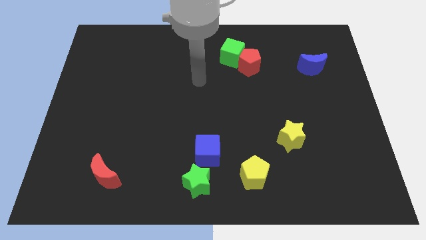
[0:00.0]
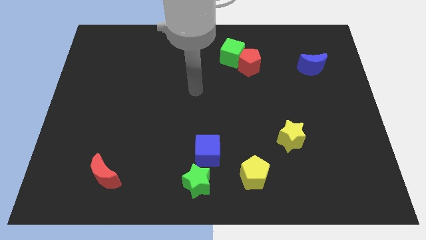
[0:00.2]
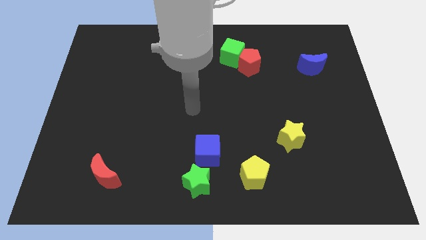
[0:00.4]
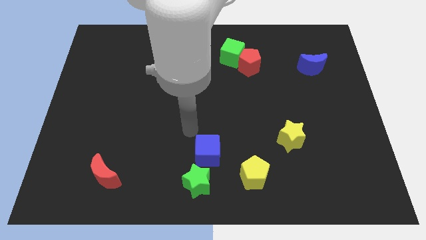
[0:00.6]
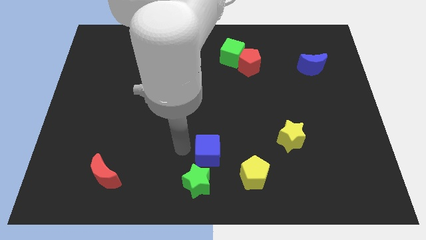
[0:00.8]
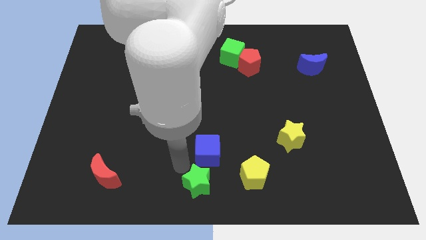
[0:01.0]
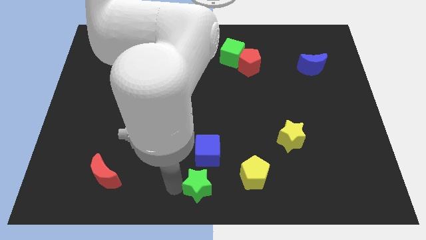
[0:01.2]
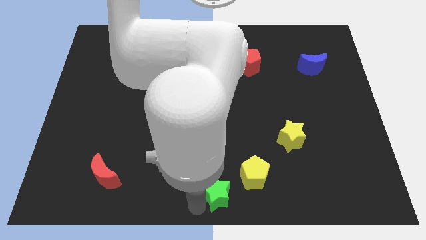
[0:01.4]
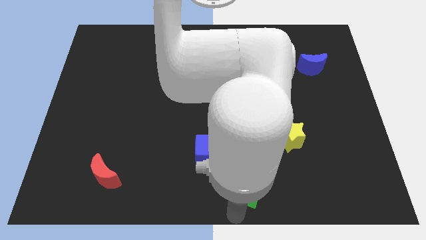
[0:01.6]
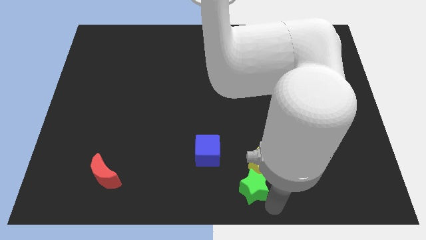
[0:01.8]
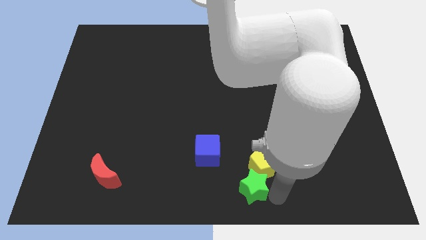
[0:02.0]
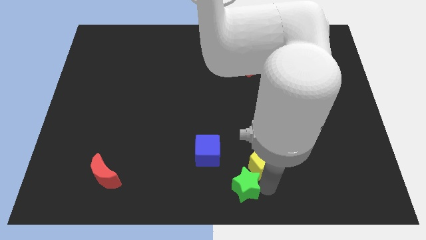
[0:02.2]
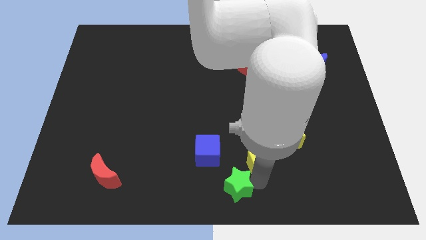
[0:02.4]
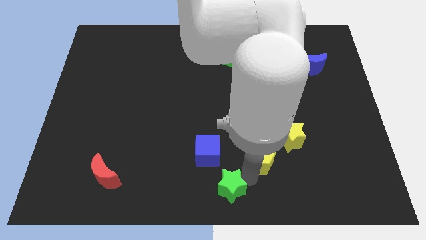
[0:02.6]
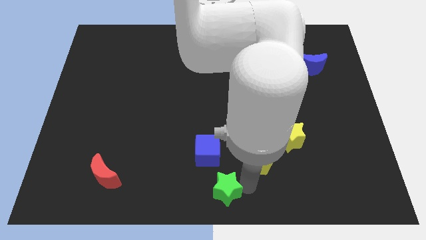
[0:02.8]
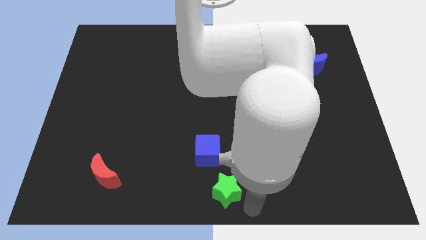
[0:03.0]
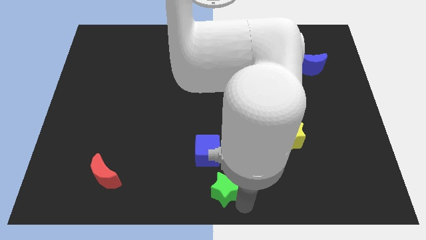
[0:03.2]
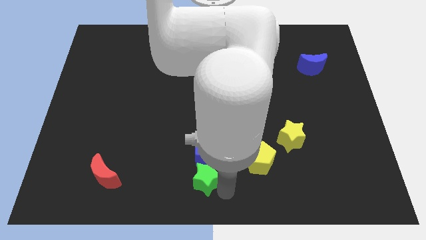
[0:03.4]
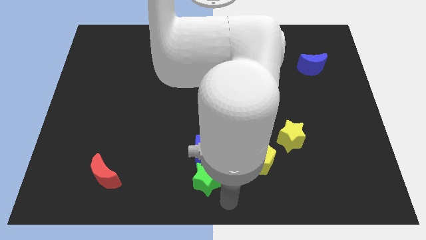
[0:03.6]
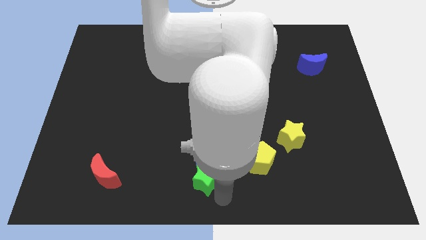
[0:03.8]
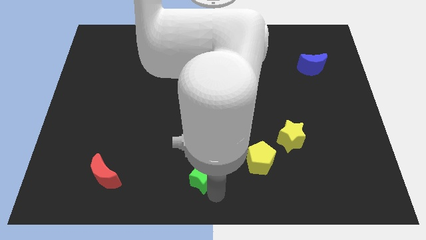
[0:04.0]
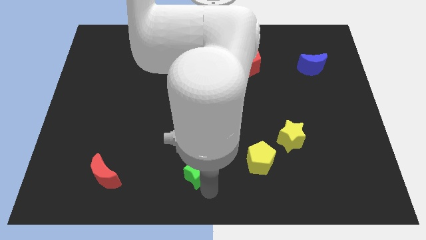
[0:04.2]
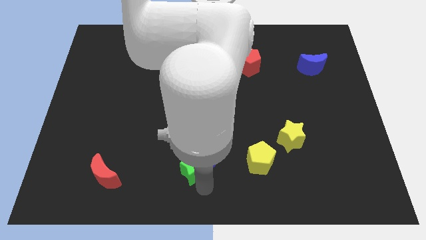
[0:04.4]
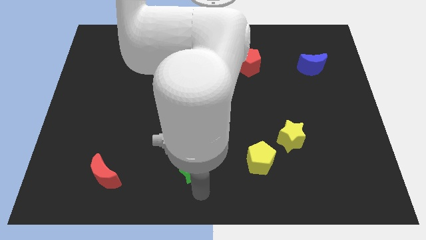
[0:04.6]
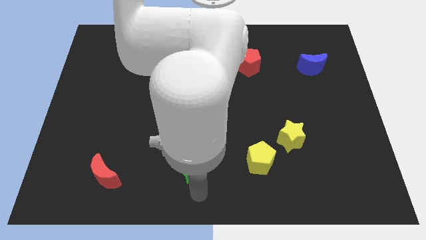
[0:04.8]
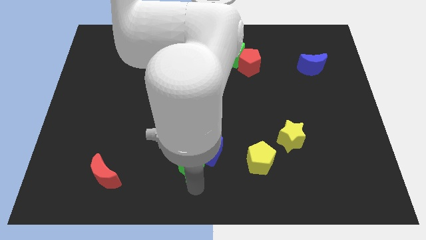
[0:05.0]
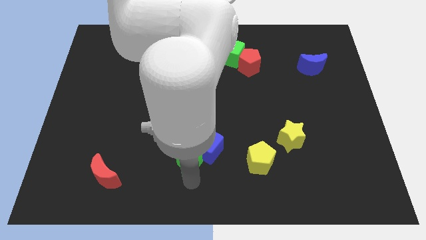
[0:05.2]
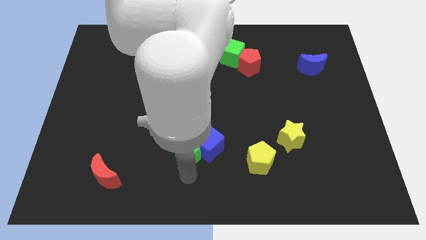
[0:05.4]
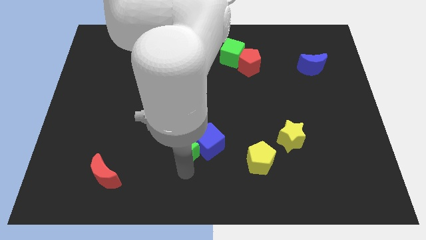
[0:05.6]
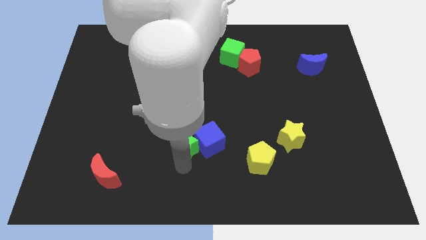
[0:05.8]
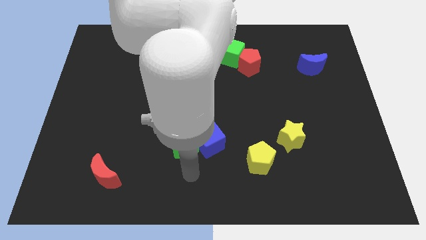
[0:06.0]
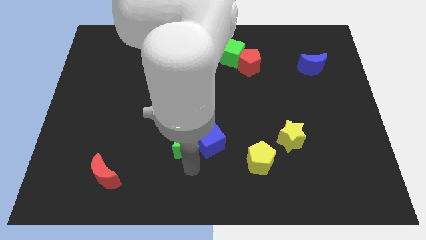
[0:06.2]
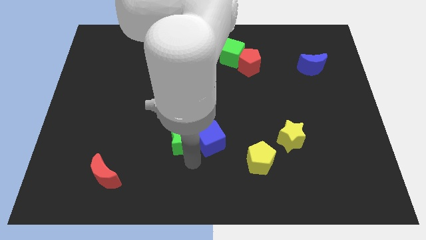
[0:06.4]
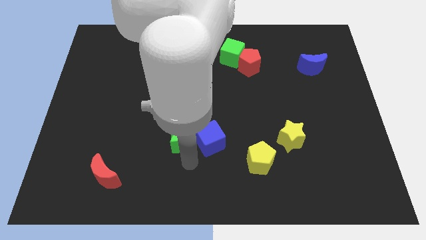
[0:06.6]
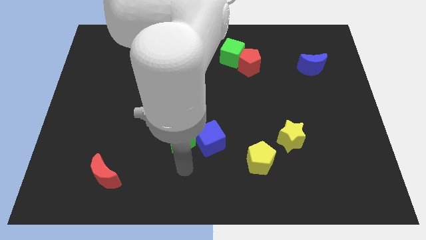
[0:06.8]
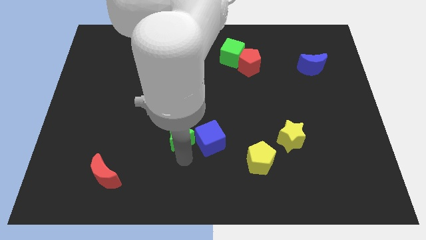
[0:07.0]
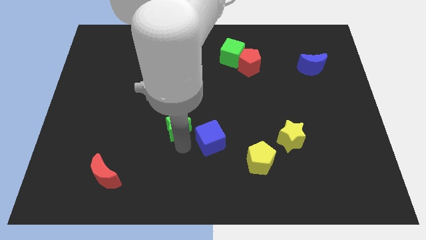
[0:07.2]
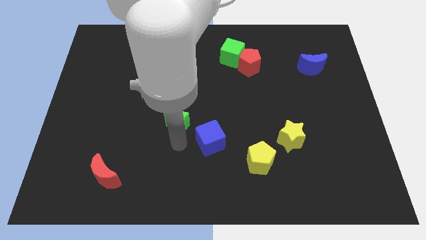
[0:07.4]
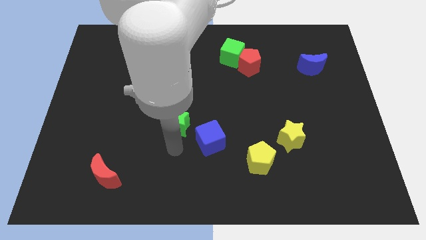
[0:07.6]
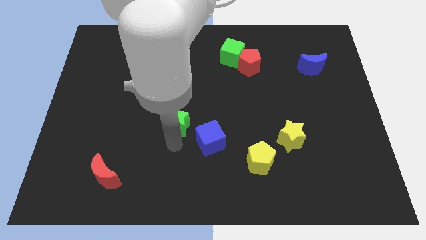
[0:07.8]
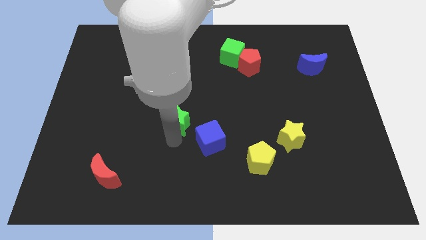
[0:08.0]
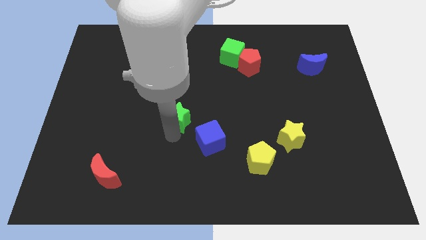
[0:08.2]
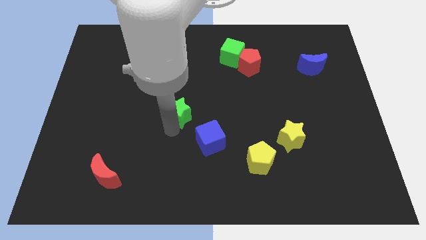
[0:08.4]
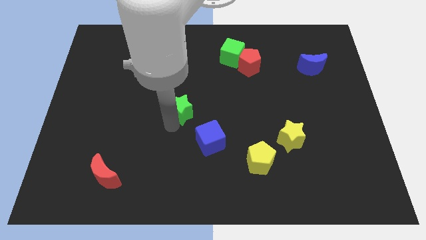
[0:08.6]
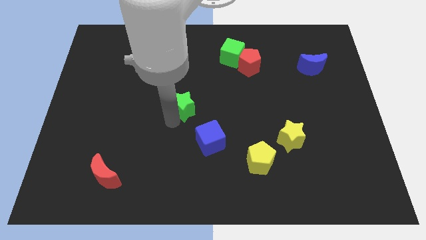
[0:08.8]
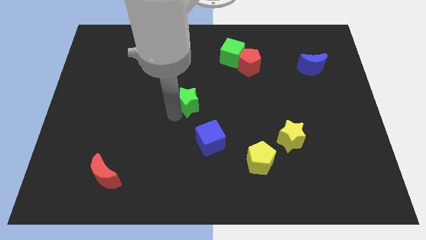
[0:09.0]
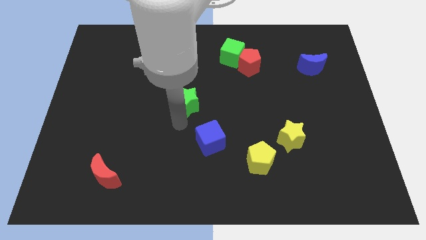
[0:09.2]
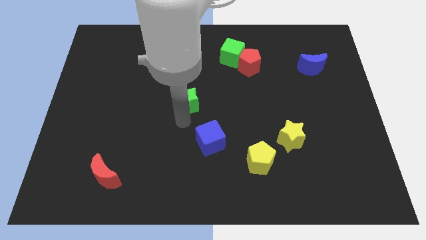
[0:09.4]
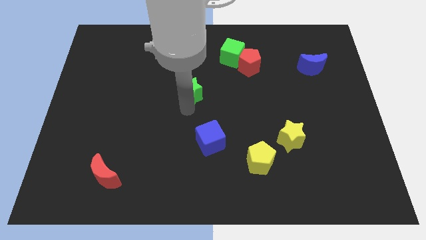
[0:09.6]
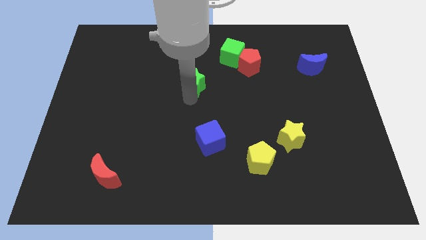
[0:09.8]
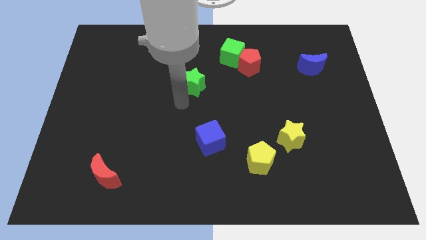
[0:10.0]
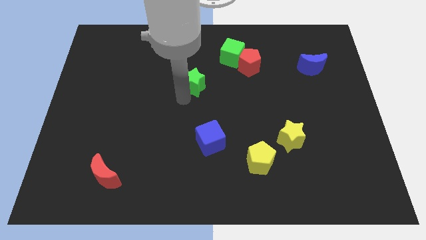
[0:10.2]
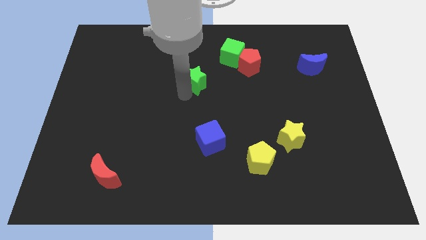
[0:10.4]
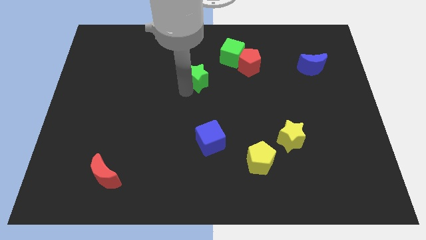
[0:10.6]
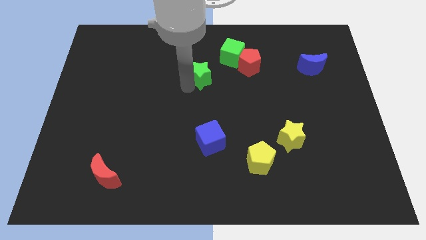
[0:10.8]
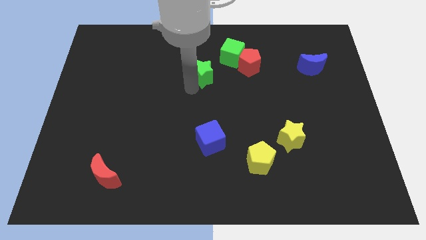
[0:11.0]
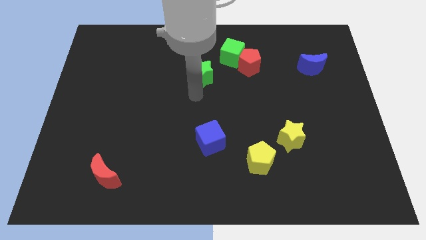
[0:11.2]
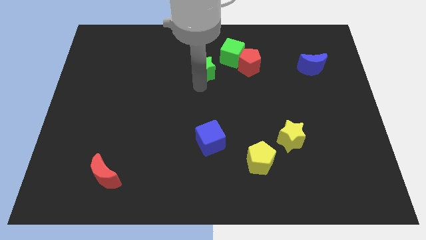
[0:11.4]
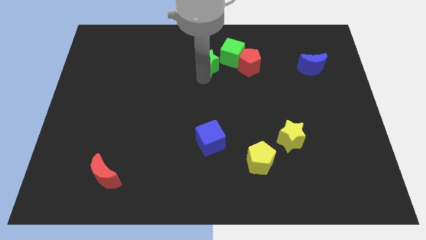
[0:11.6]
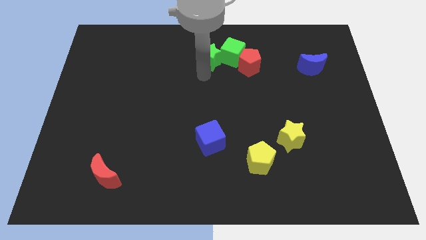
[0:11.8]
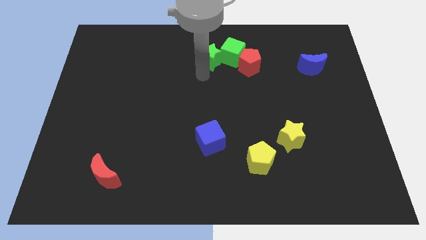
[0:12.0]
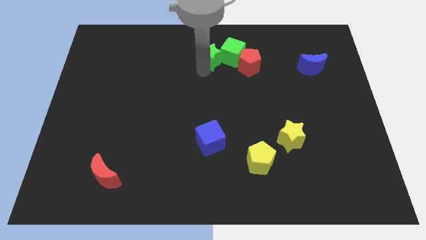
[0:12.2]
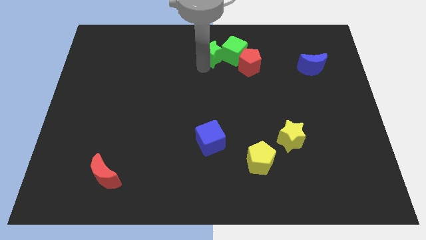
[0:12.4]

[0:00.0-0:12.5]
move the green star to the towards your base

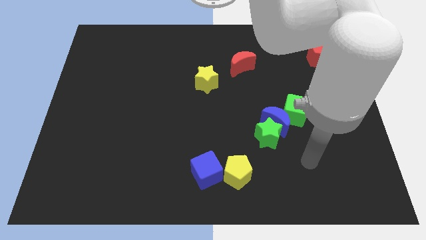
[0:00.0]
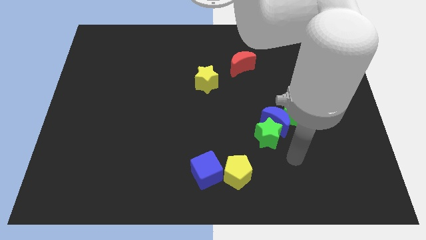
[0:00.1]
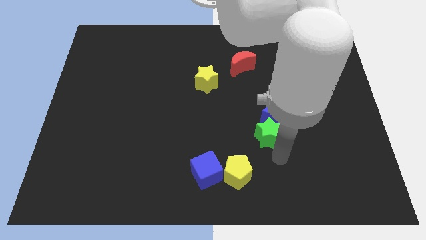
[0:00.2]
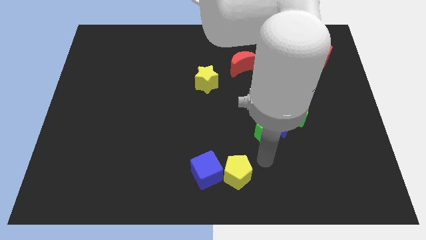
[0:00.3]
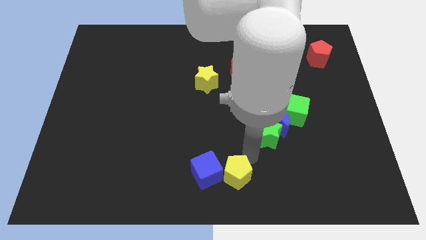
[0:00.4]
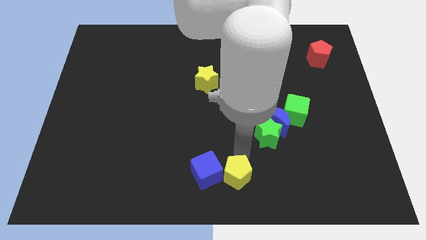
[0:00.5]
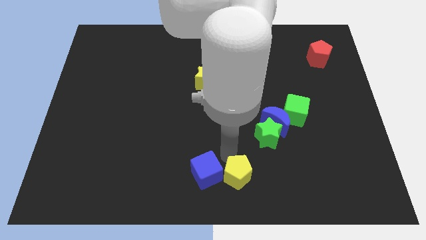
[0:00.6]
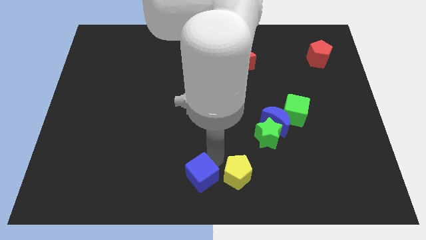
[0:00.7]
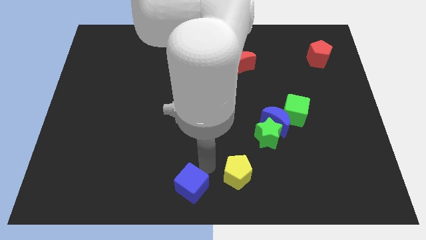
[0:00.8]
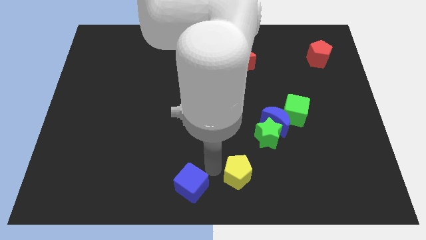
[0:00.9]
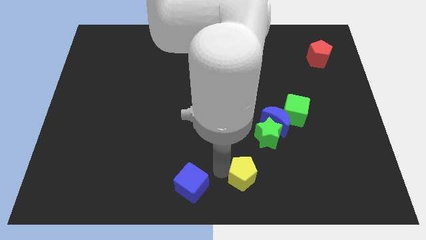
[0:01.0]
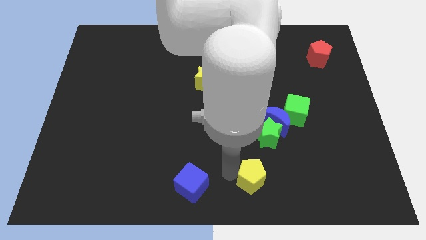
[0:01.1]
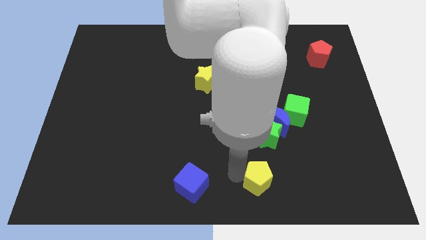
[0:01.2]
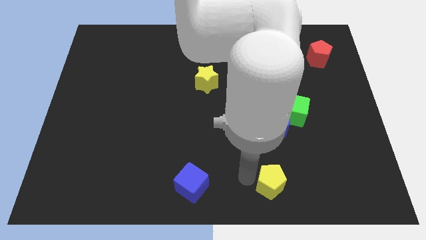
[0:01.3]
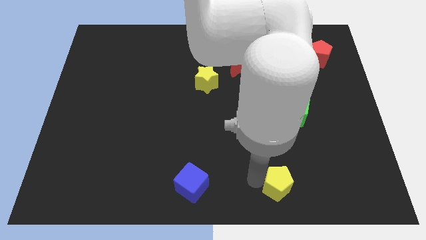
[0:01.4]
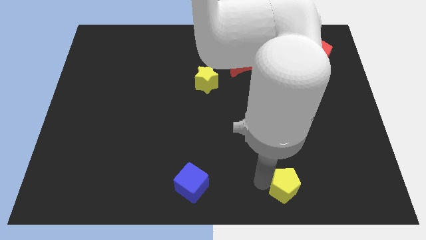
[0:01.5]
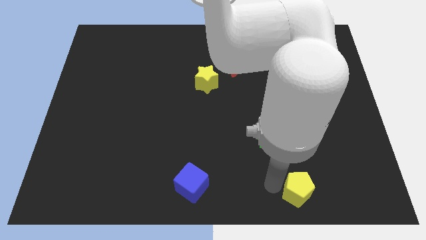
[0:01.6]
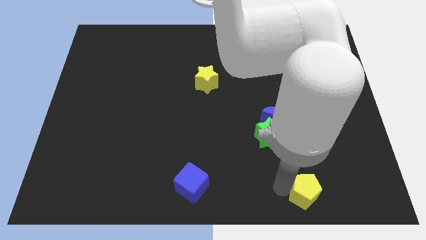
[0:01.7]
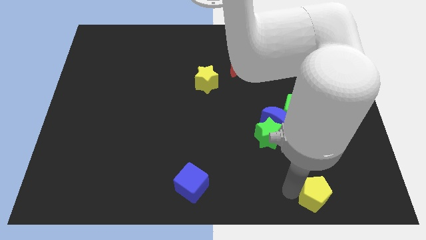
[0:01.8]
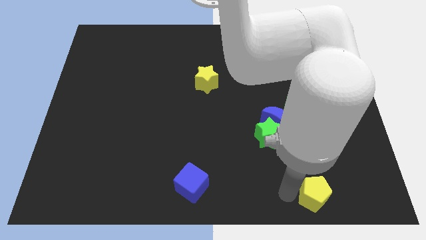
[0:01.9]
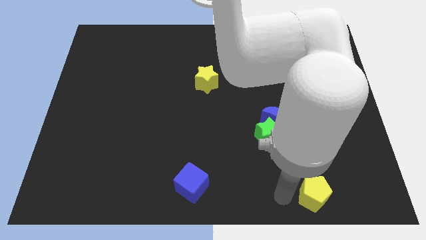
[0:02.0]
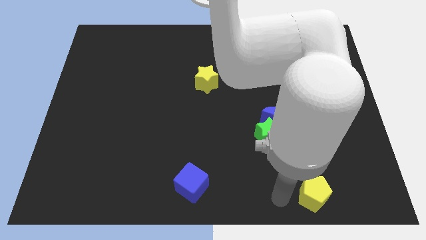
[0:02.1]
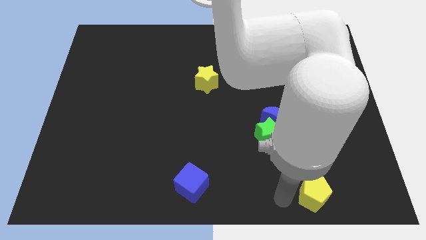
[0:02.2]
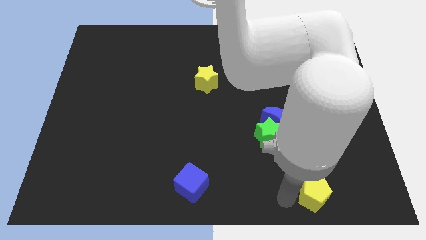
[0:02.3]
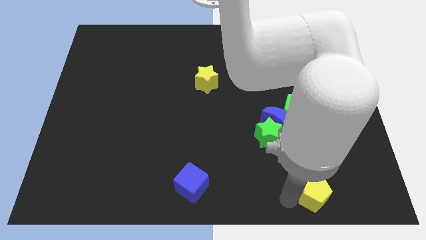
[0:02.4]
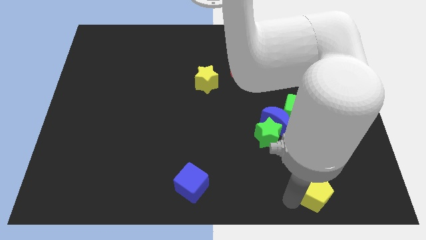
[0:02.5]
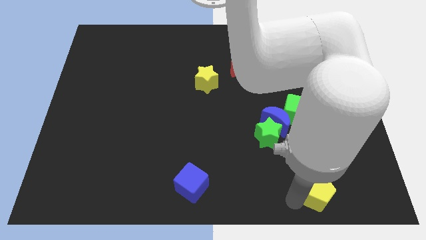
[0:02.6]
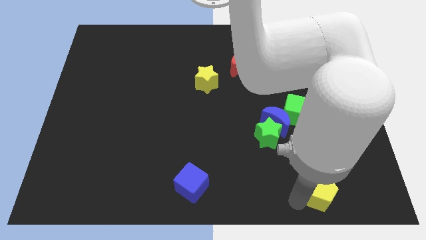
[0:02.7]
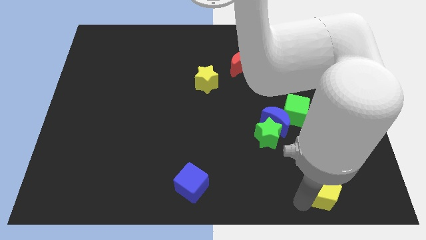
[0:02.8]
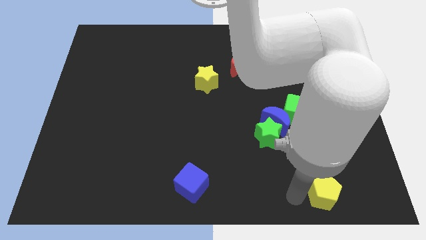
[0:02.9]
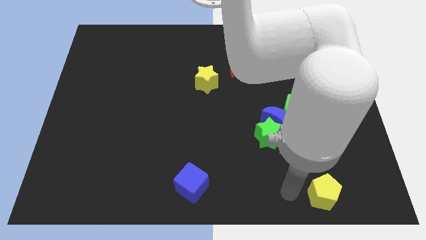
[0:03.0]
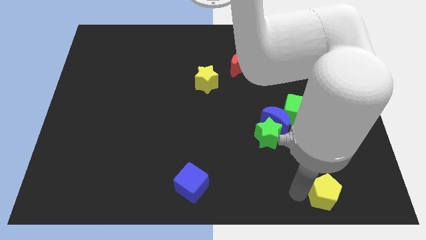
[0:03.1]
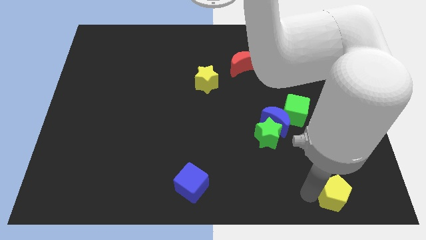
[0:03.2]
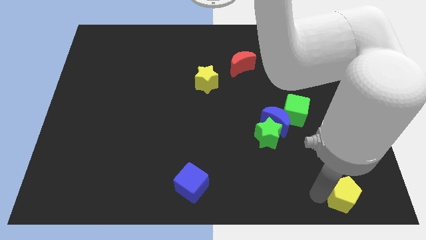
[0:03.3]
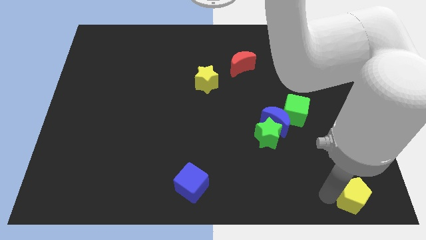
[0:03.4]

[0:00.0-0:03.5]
move the yellow pentagon to the bottom right of the board
